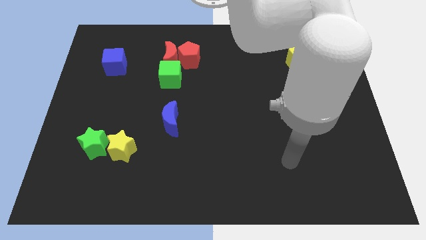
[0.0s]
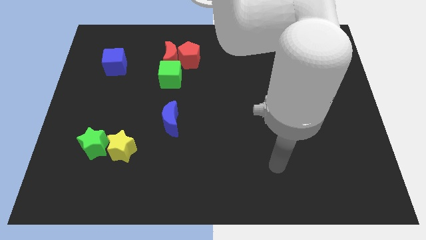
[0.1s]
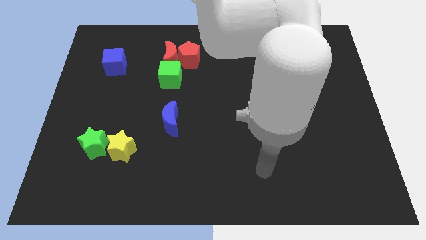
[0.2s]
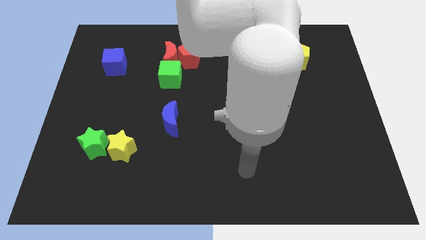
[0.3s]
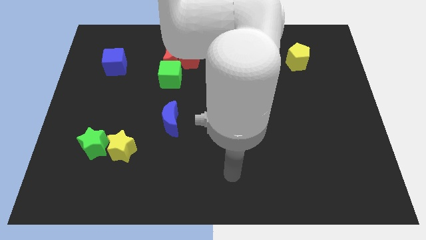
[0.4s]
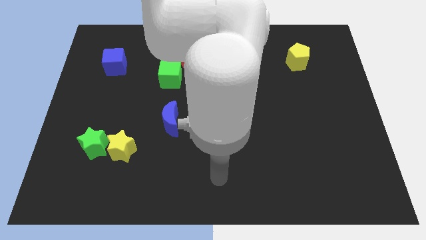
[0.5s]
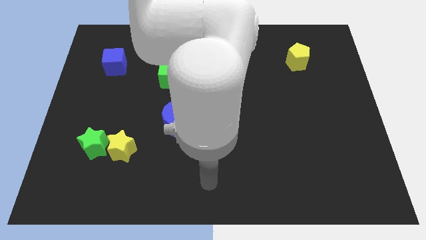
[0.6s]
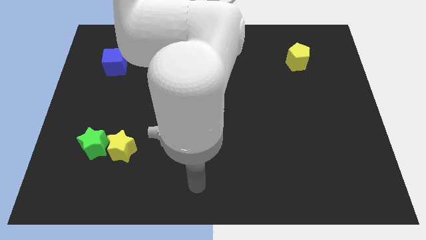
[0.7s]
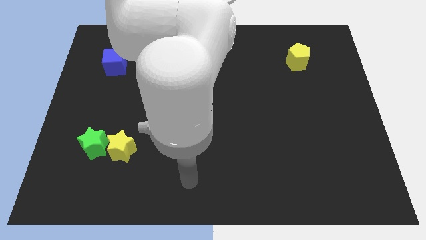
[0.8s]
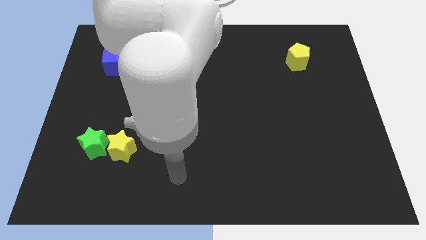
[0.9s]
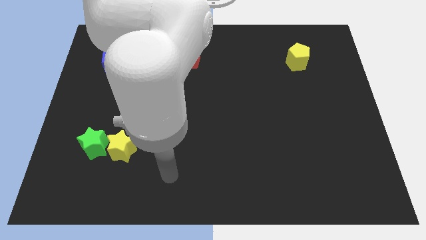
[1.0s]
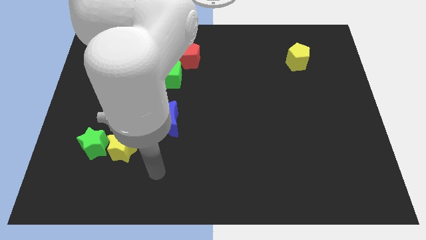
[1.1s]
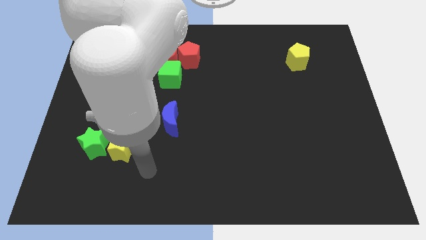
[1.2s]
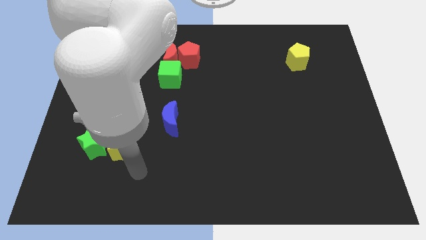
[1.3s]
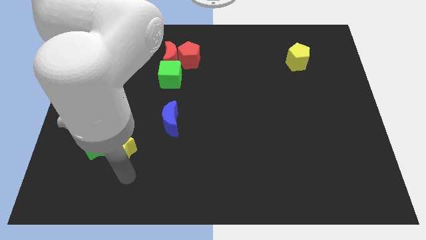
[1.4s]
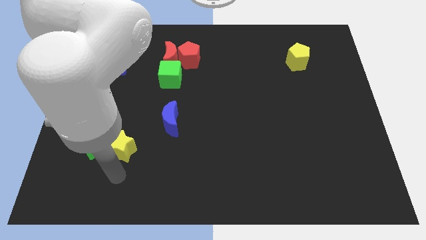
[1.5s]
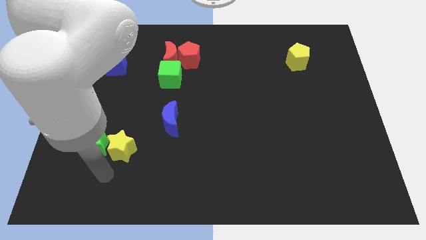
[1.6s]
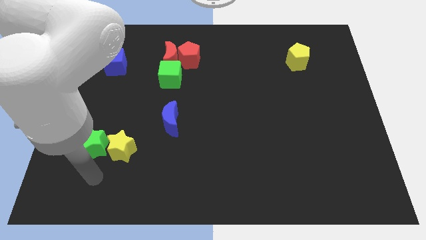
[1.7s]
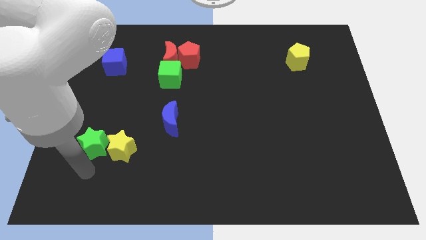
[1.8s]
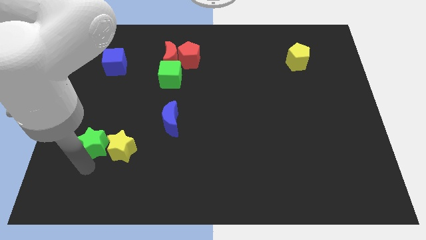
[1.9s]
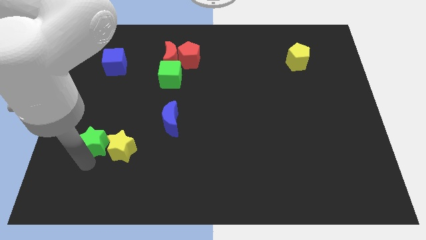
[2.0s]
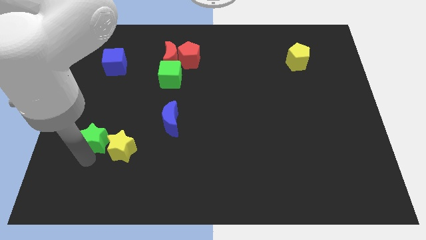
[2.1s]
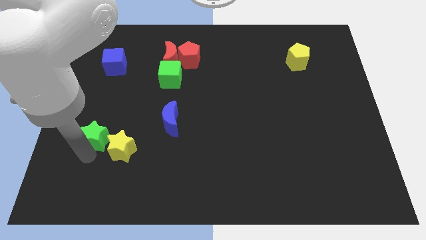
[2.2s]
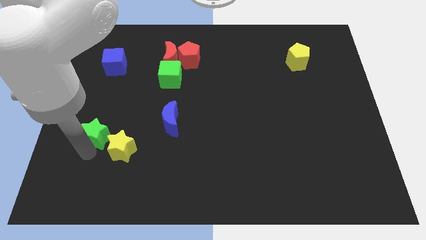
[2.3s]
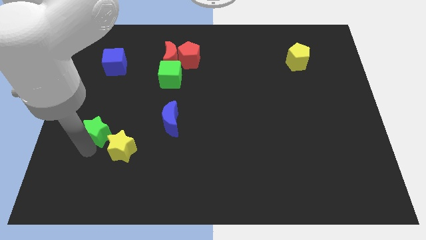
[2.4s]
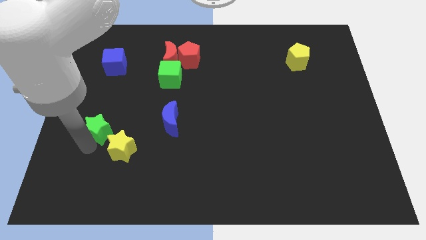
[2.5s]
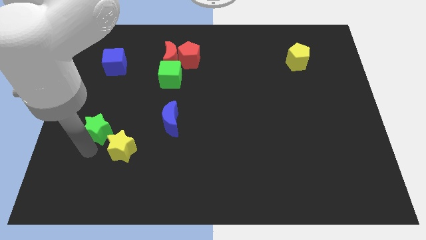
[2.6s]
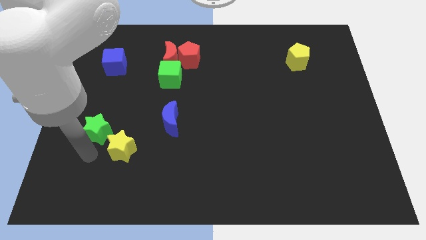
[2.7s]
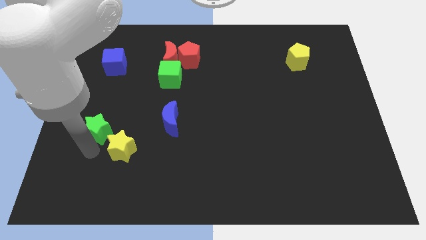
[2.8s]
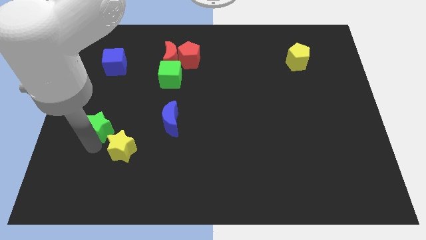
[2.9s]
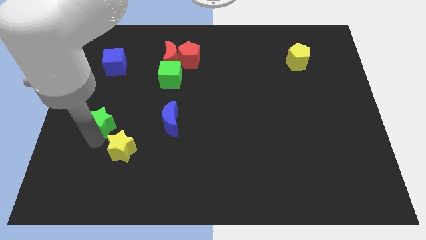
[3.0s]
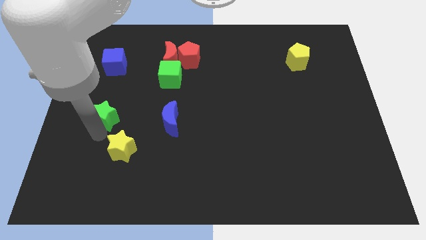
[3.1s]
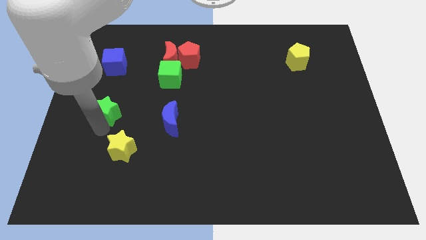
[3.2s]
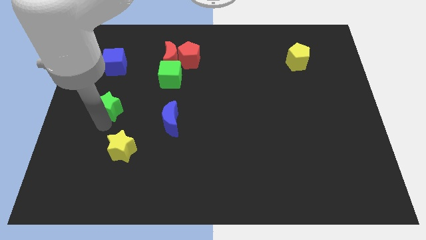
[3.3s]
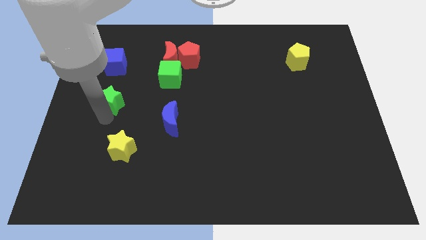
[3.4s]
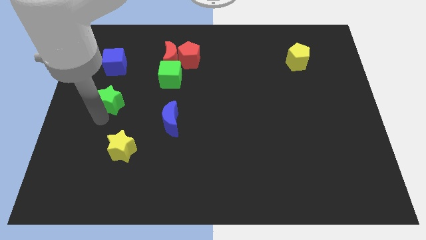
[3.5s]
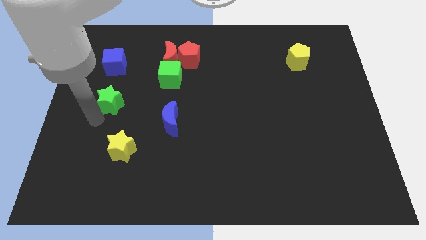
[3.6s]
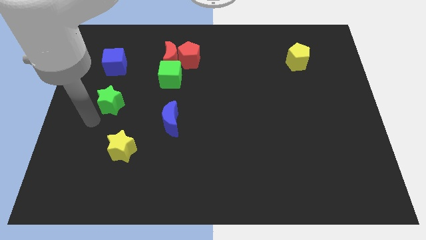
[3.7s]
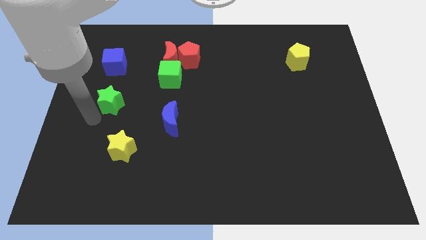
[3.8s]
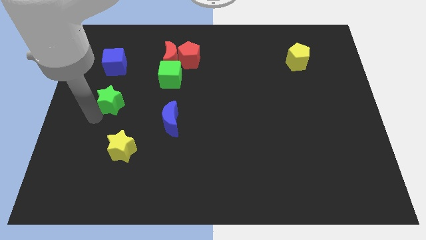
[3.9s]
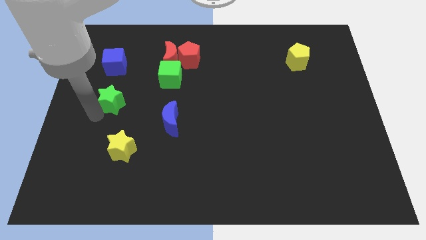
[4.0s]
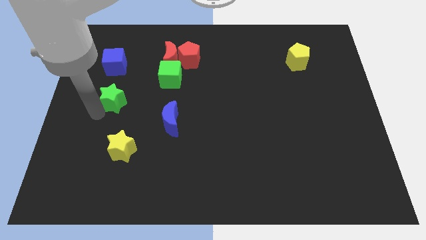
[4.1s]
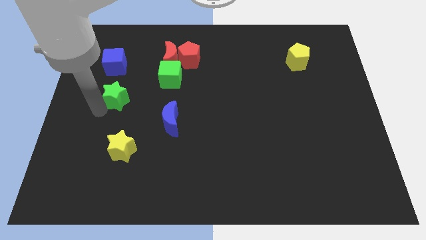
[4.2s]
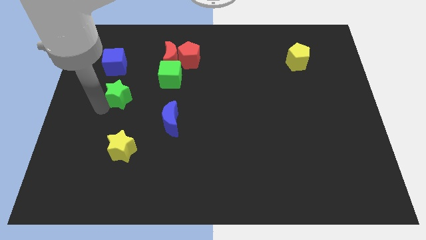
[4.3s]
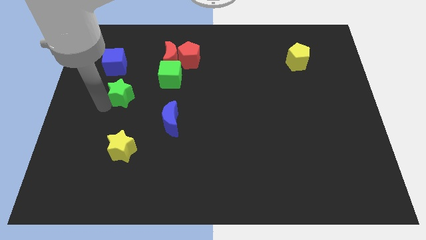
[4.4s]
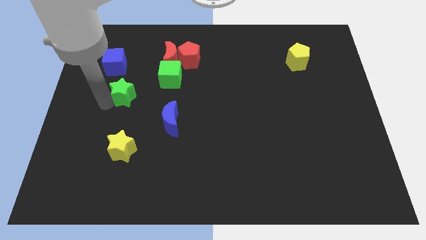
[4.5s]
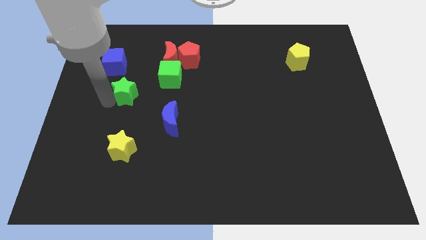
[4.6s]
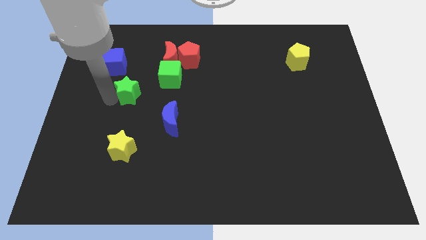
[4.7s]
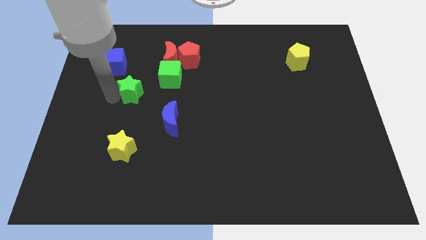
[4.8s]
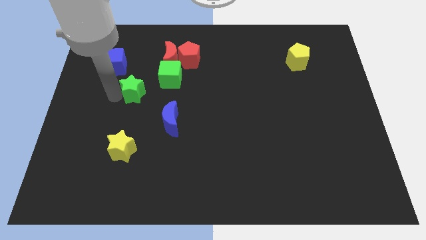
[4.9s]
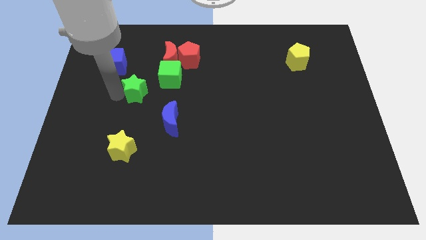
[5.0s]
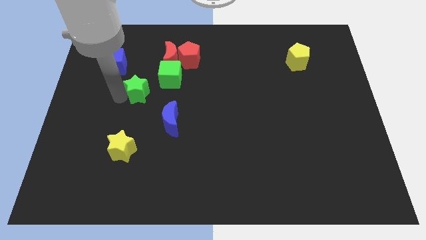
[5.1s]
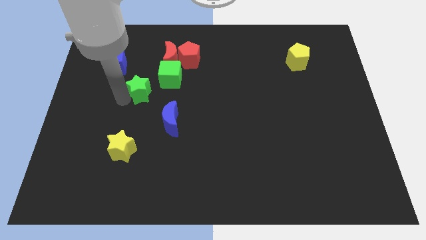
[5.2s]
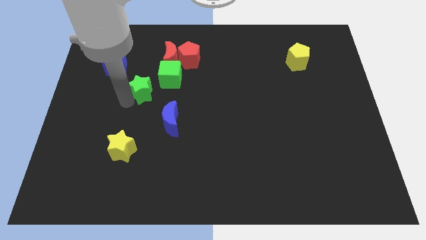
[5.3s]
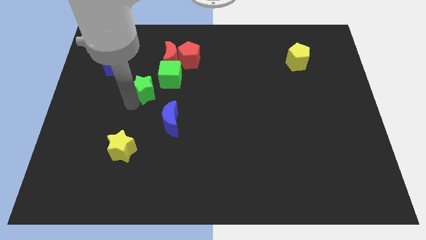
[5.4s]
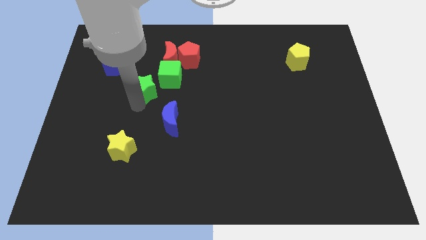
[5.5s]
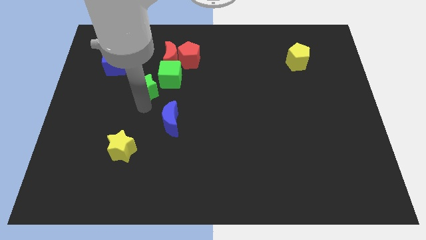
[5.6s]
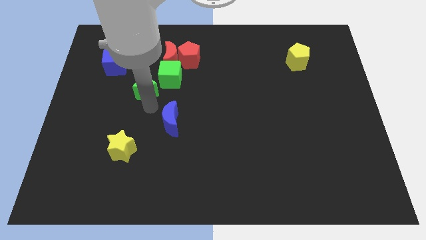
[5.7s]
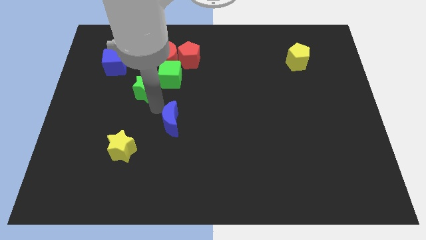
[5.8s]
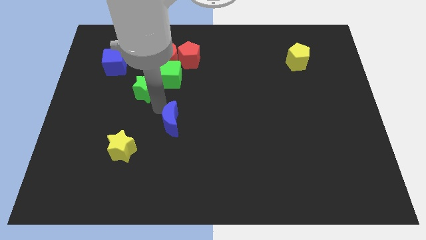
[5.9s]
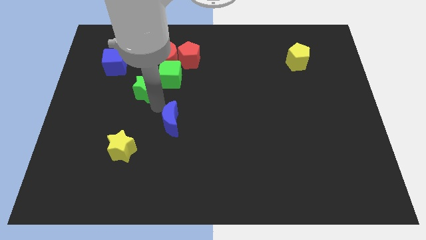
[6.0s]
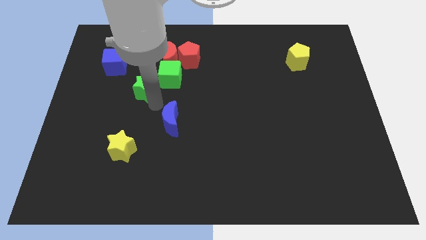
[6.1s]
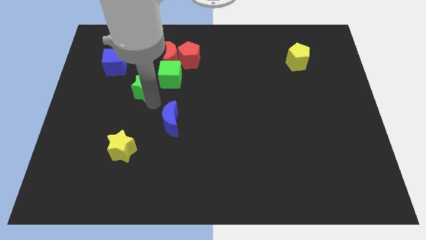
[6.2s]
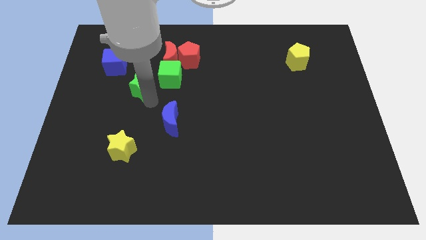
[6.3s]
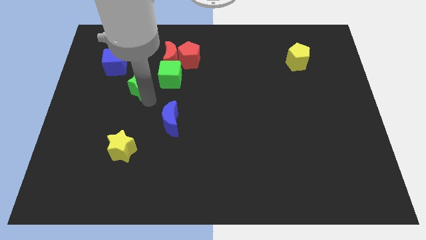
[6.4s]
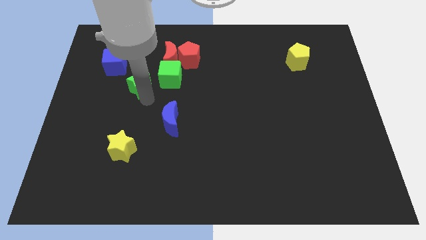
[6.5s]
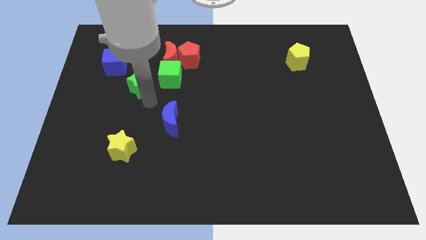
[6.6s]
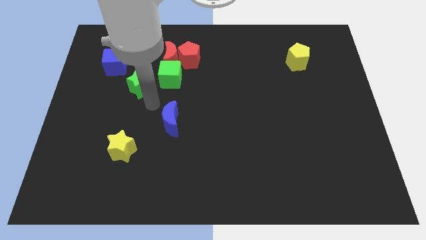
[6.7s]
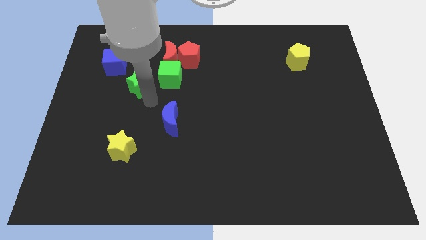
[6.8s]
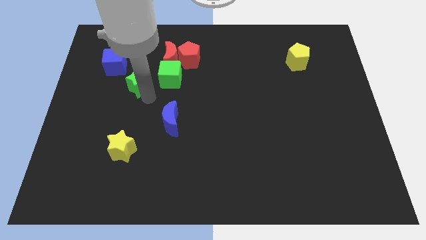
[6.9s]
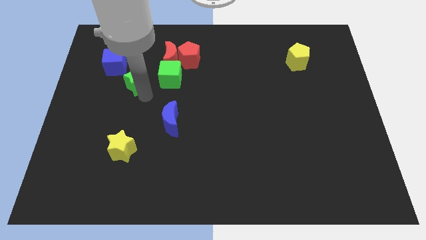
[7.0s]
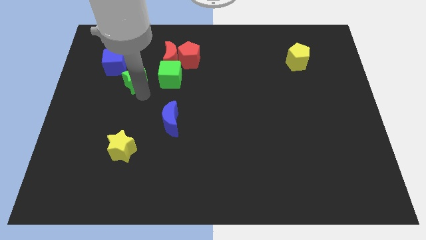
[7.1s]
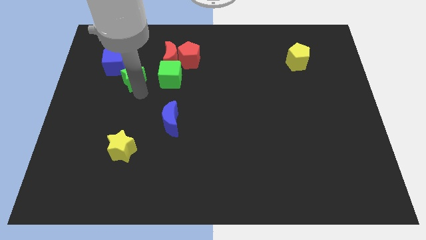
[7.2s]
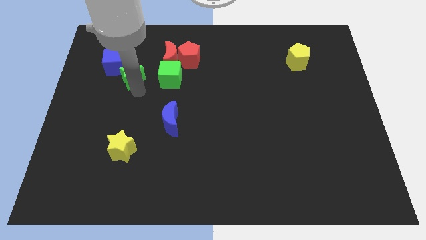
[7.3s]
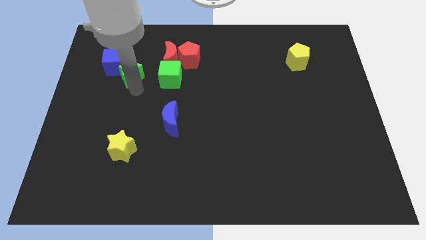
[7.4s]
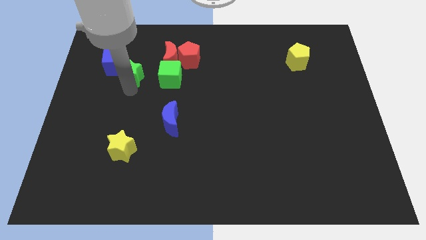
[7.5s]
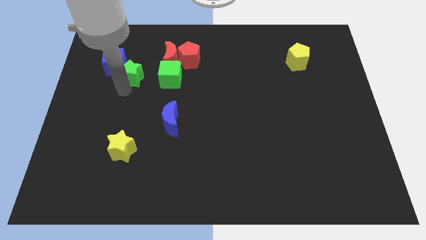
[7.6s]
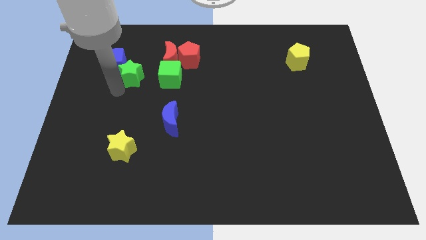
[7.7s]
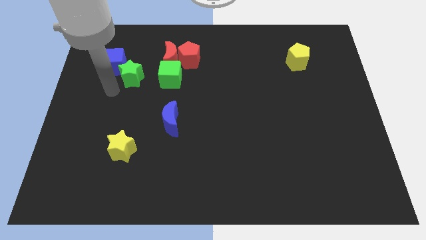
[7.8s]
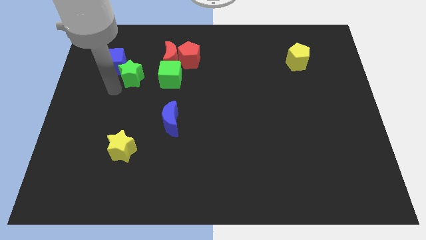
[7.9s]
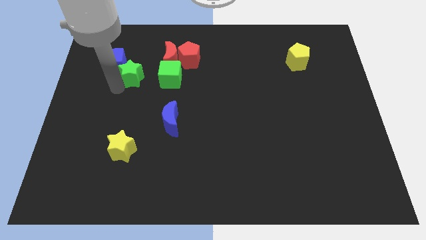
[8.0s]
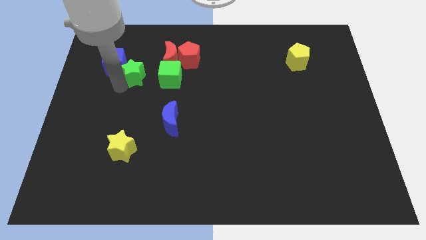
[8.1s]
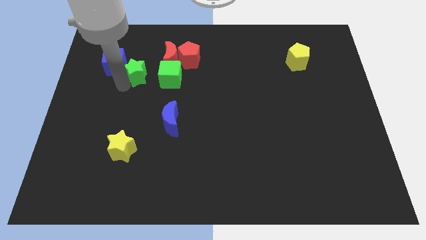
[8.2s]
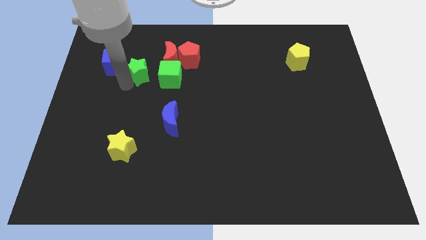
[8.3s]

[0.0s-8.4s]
slide the green star to the top left of the green cube
